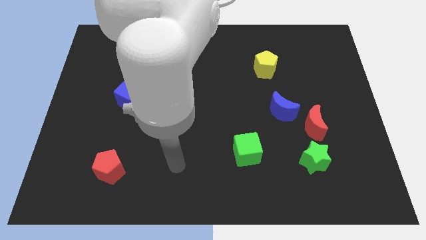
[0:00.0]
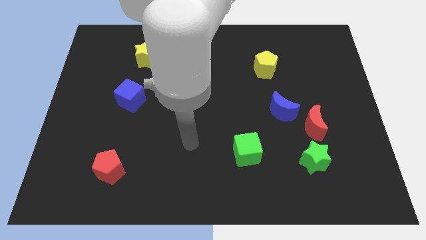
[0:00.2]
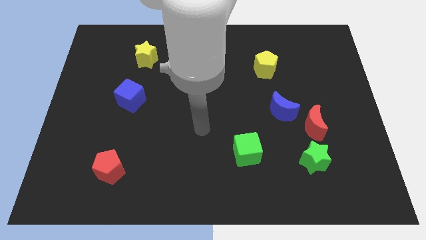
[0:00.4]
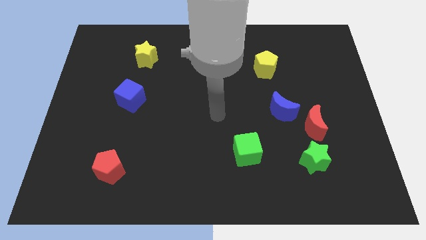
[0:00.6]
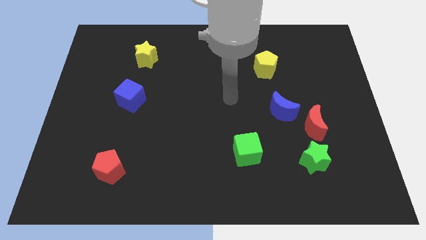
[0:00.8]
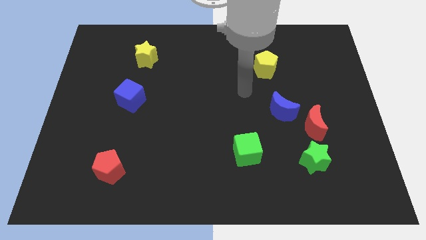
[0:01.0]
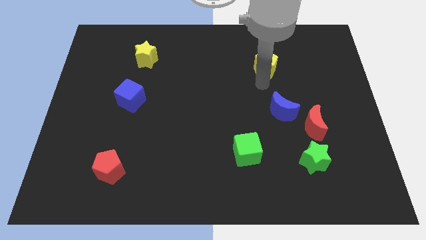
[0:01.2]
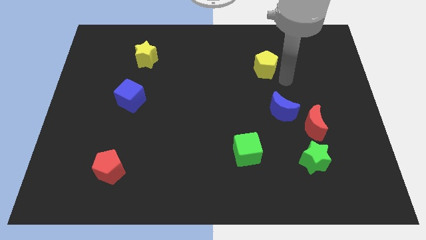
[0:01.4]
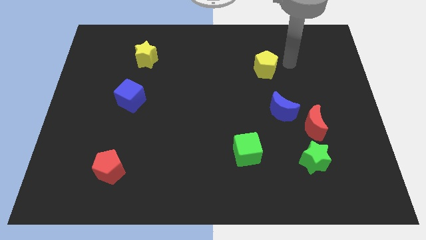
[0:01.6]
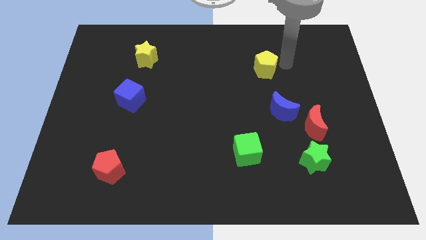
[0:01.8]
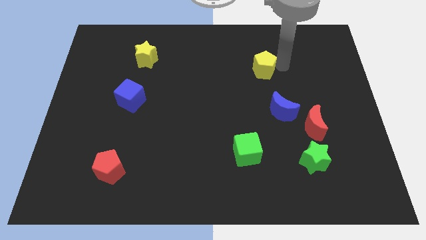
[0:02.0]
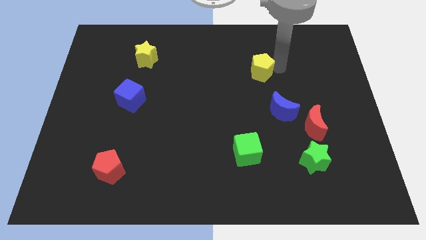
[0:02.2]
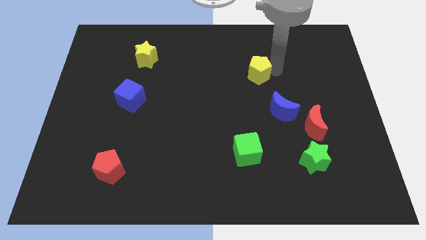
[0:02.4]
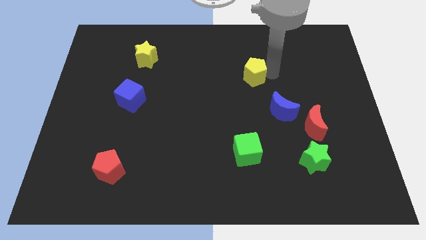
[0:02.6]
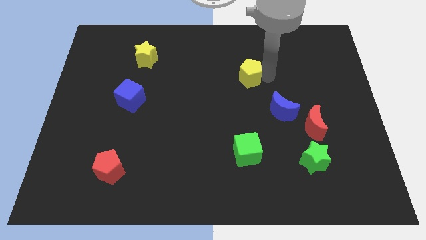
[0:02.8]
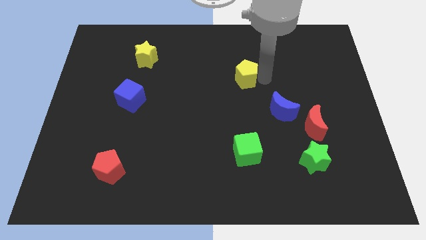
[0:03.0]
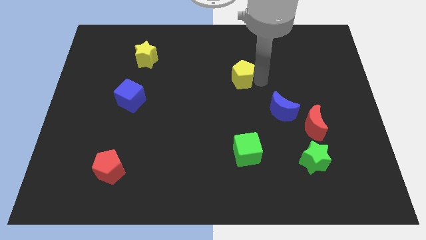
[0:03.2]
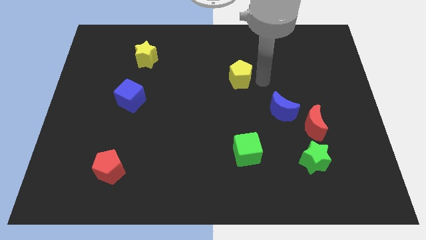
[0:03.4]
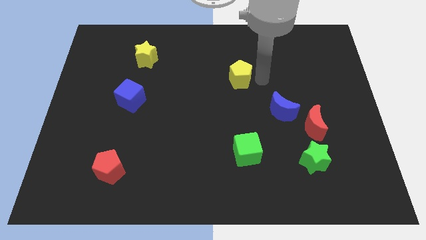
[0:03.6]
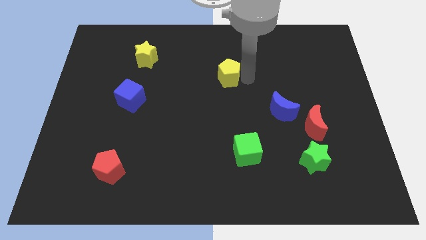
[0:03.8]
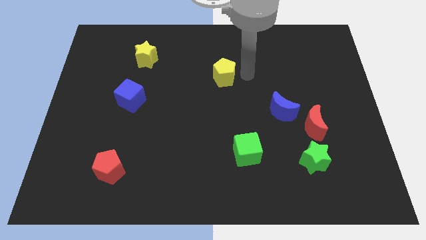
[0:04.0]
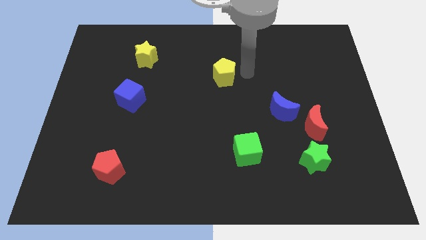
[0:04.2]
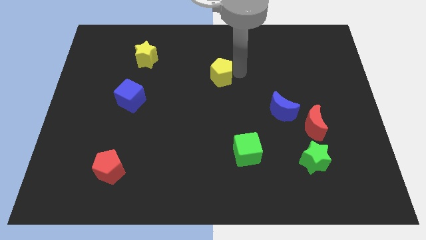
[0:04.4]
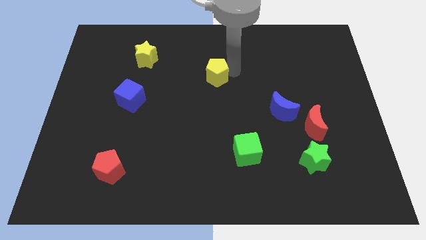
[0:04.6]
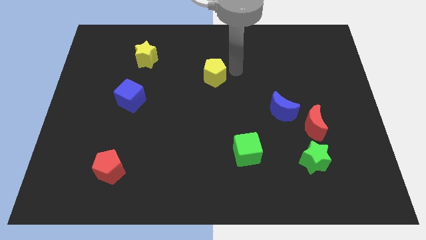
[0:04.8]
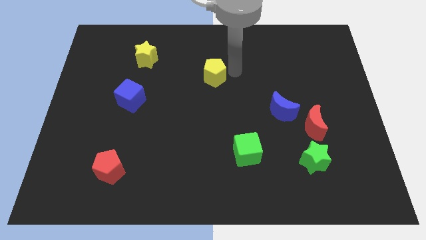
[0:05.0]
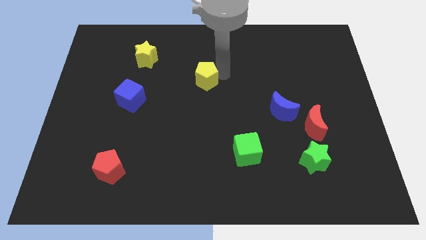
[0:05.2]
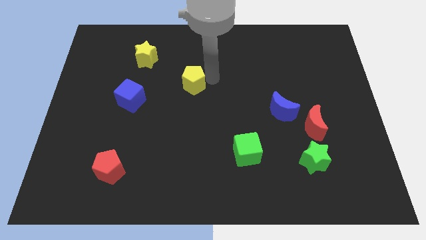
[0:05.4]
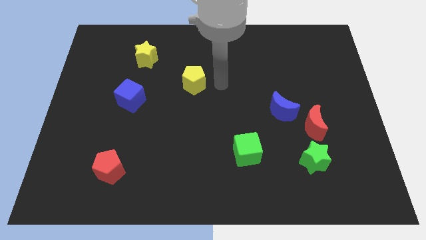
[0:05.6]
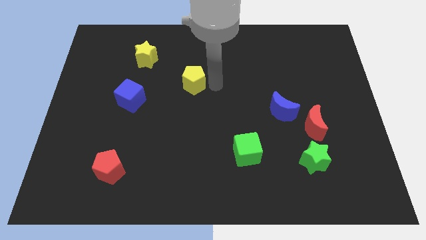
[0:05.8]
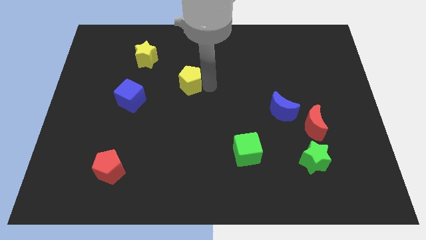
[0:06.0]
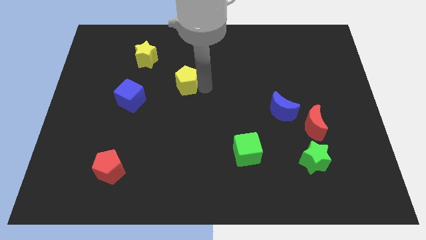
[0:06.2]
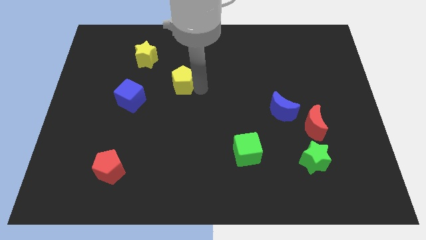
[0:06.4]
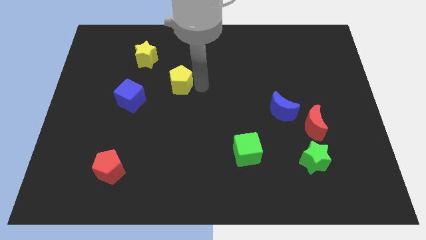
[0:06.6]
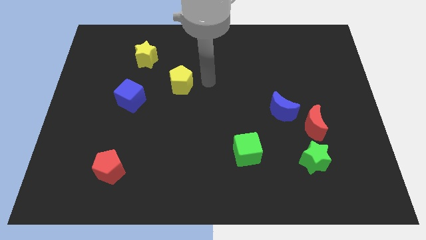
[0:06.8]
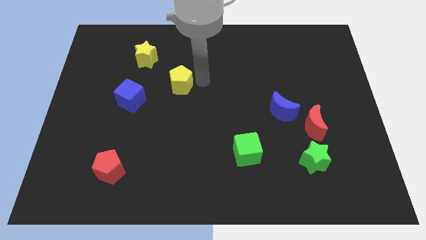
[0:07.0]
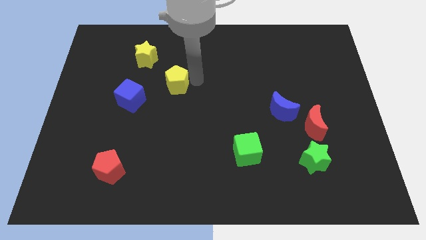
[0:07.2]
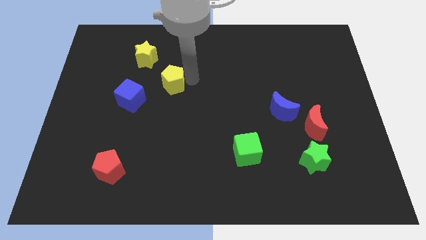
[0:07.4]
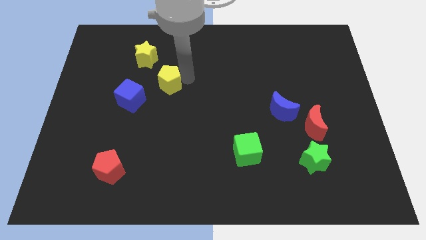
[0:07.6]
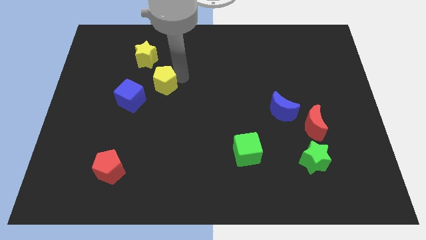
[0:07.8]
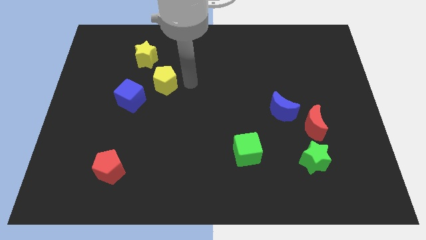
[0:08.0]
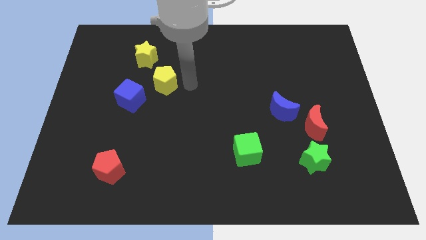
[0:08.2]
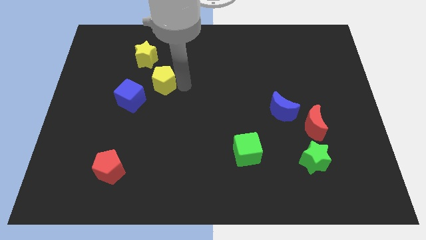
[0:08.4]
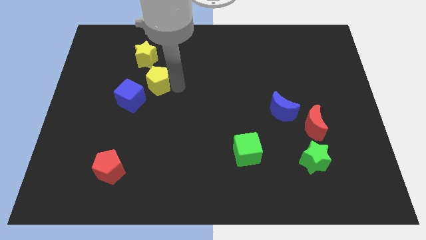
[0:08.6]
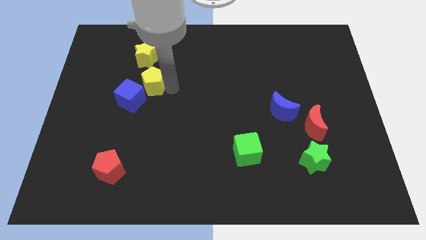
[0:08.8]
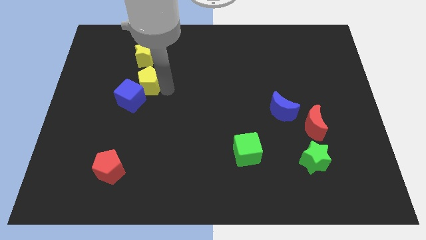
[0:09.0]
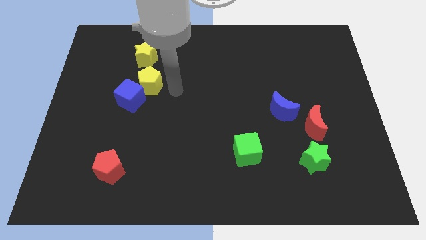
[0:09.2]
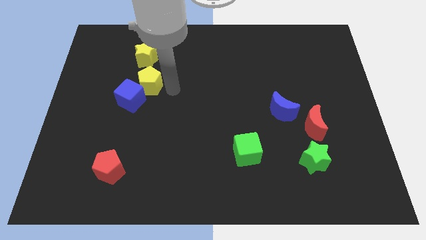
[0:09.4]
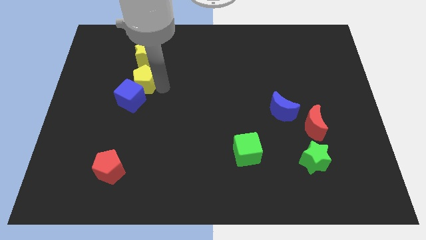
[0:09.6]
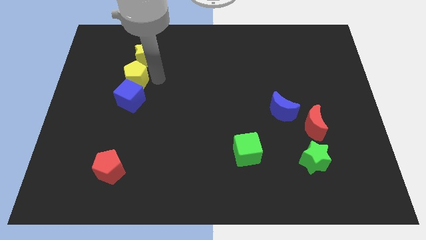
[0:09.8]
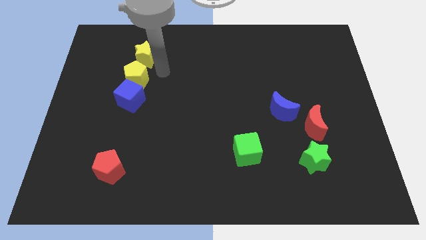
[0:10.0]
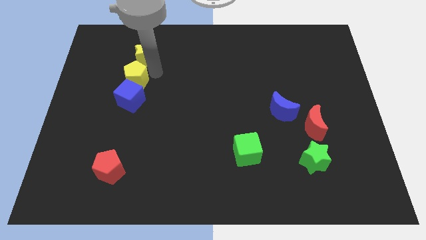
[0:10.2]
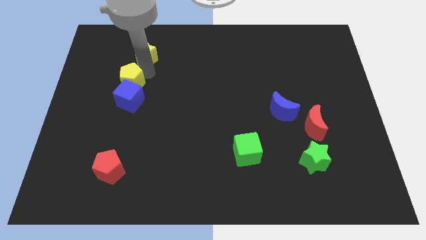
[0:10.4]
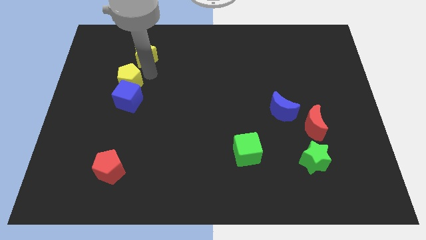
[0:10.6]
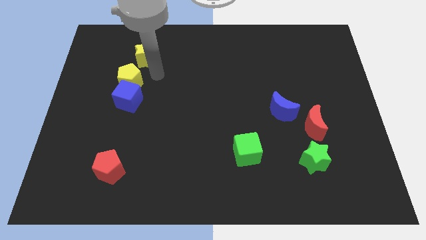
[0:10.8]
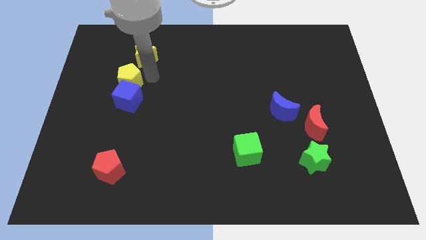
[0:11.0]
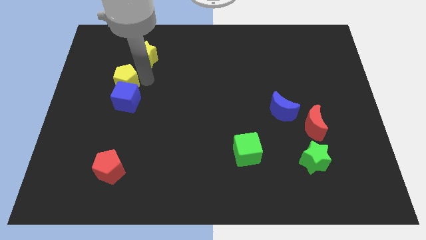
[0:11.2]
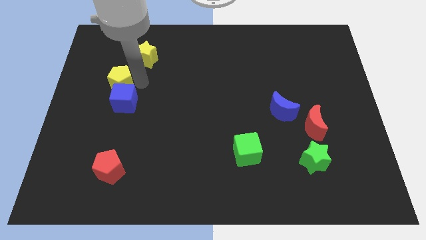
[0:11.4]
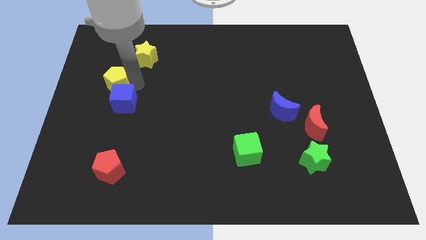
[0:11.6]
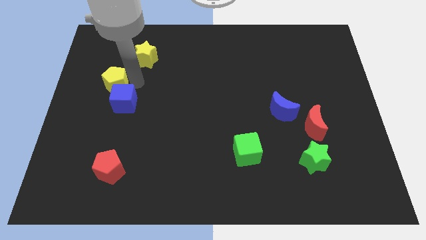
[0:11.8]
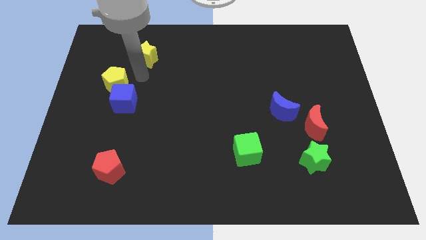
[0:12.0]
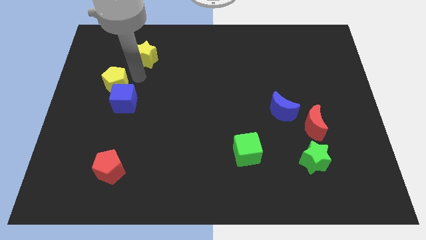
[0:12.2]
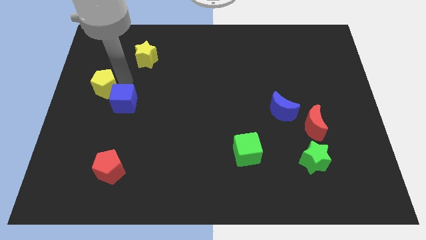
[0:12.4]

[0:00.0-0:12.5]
move the yellow pentagon to the left side of the board

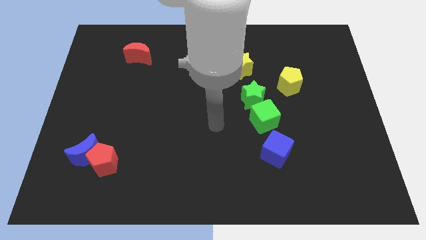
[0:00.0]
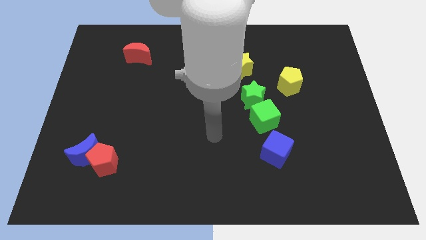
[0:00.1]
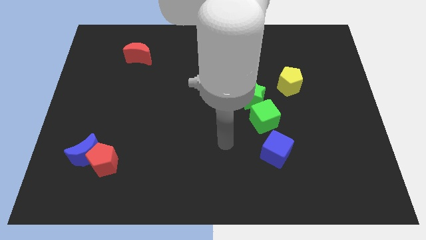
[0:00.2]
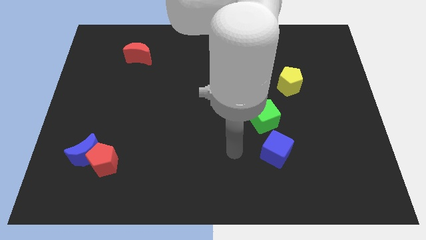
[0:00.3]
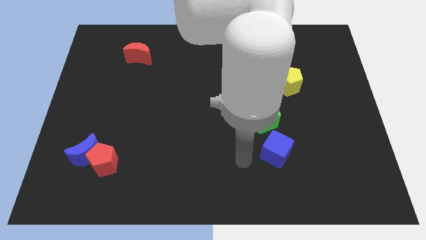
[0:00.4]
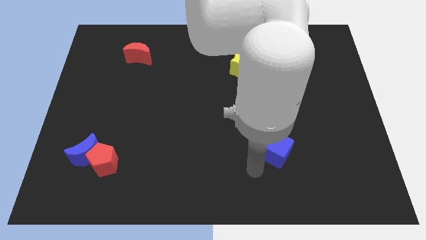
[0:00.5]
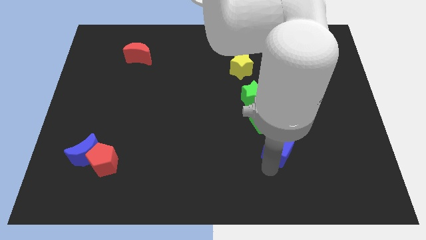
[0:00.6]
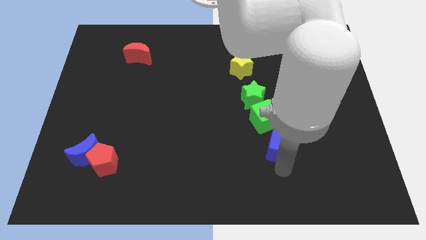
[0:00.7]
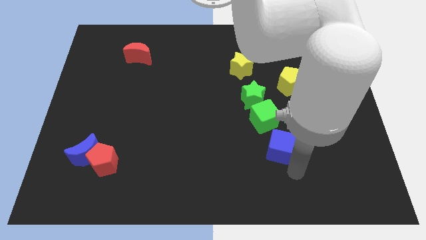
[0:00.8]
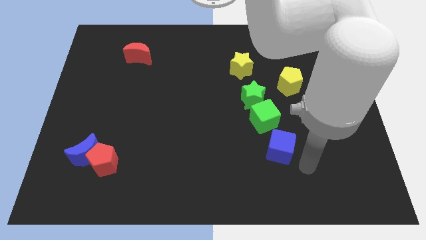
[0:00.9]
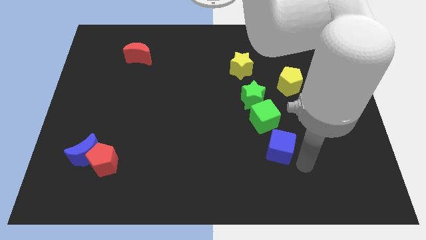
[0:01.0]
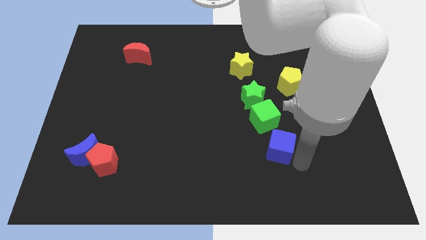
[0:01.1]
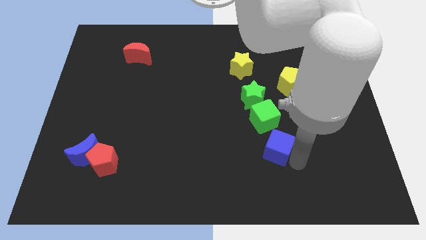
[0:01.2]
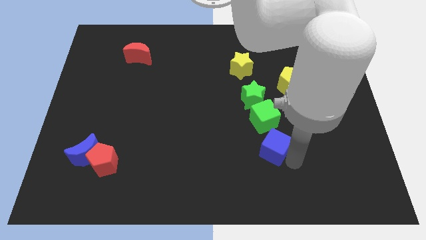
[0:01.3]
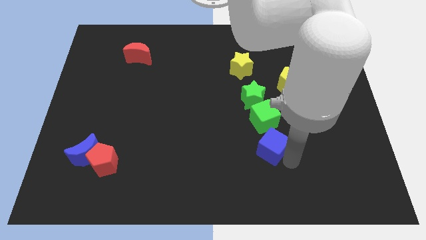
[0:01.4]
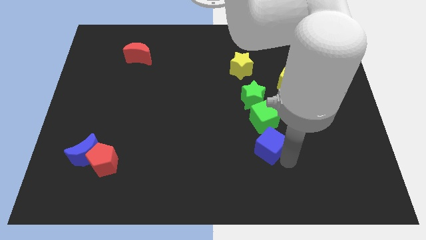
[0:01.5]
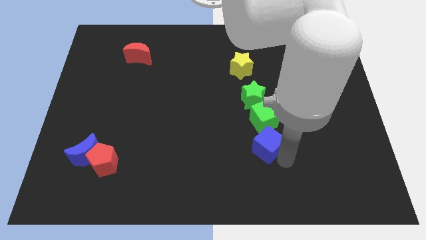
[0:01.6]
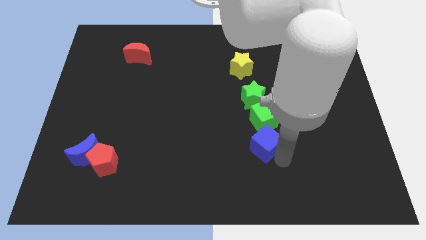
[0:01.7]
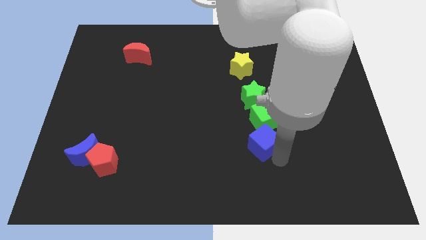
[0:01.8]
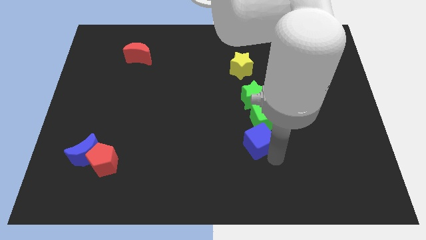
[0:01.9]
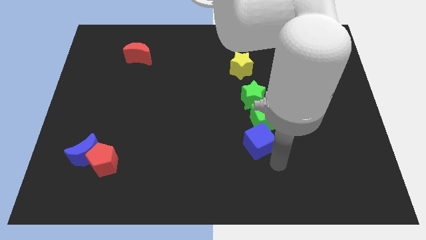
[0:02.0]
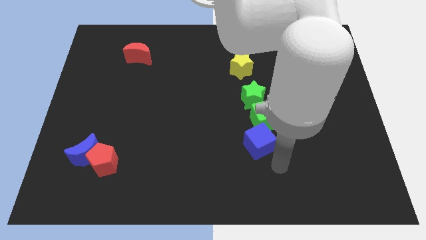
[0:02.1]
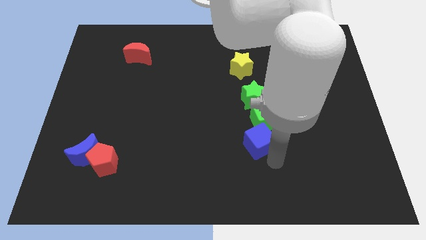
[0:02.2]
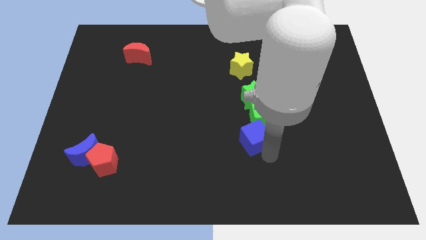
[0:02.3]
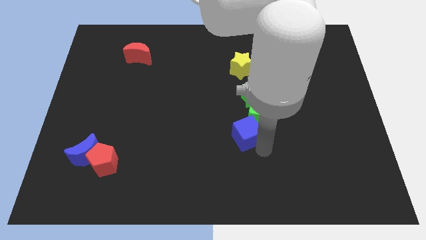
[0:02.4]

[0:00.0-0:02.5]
slide the blue cube to the center of the board
